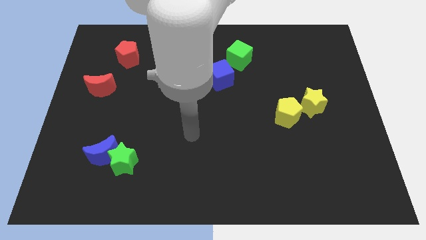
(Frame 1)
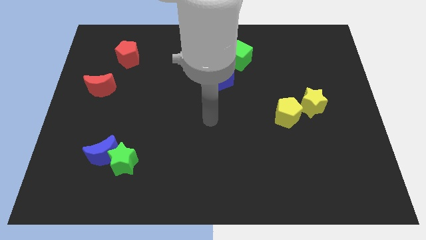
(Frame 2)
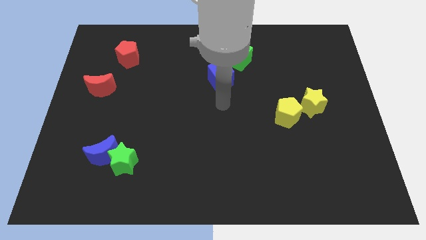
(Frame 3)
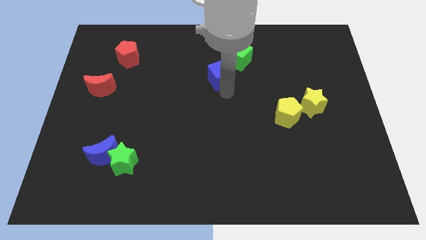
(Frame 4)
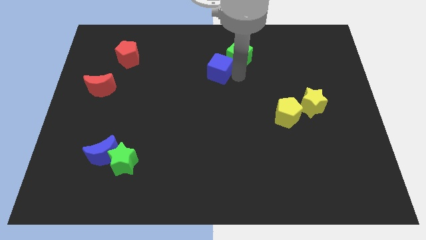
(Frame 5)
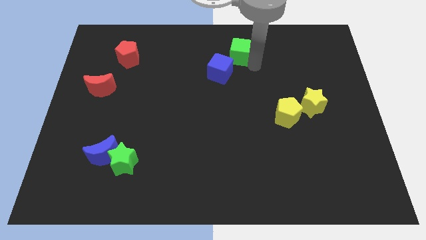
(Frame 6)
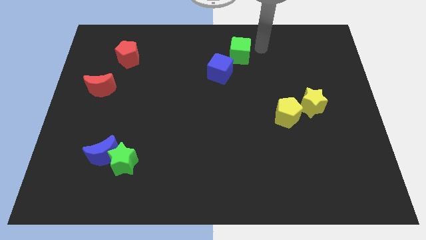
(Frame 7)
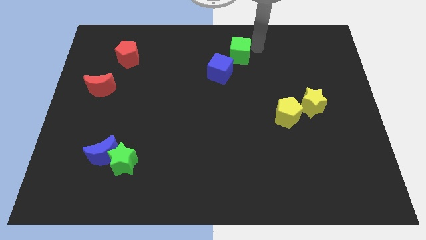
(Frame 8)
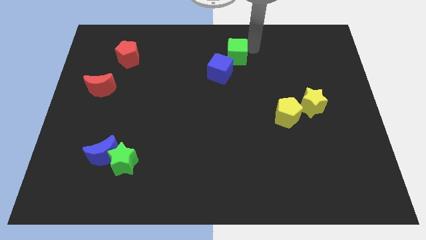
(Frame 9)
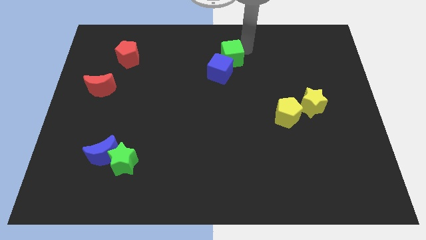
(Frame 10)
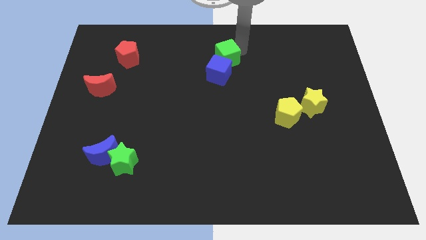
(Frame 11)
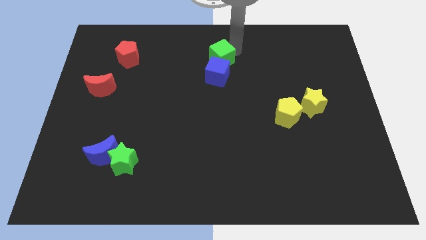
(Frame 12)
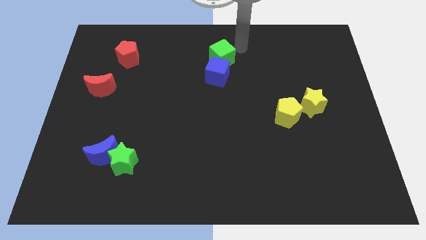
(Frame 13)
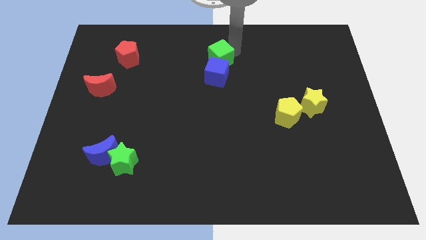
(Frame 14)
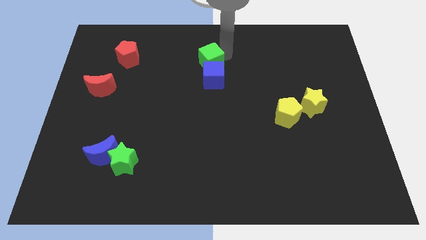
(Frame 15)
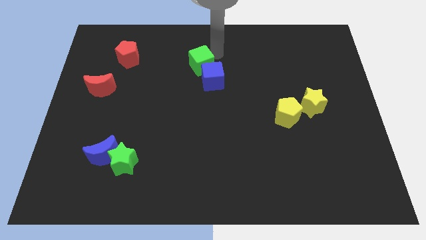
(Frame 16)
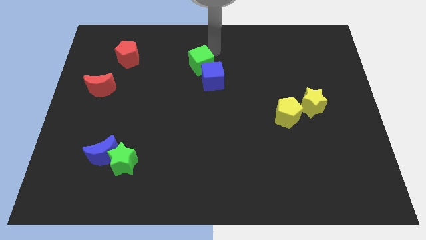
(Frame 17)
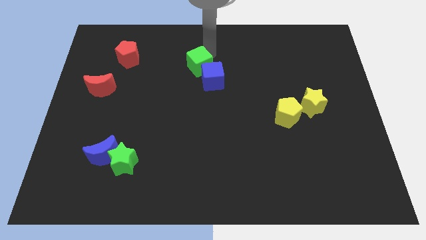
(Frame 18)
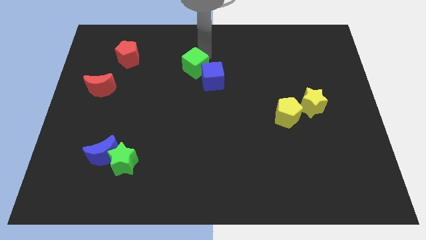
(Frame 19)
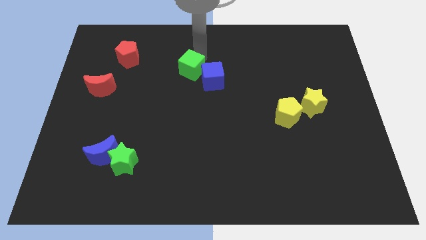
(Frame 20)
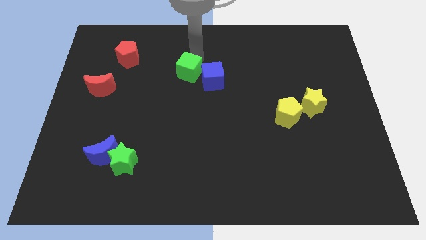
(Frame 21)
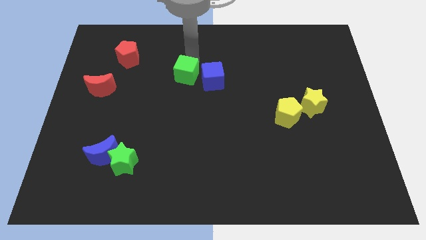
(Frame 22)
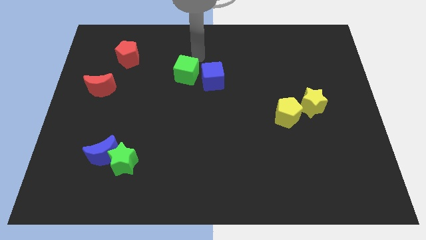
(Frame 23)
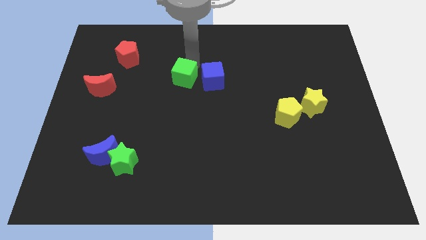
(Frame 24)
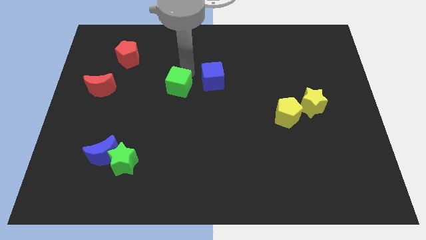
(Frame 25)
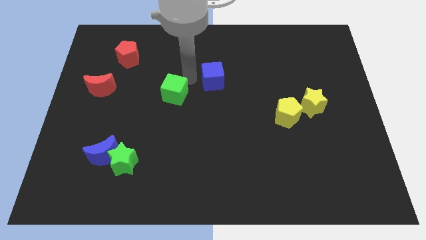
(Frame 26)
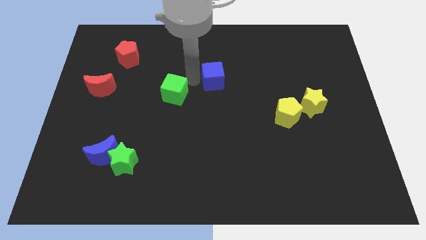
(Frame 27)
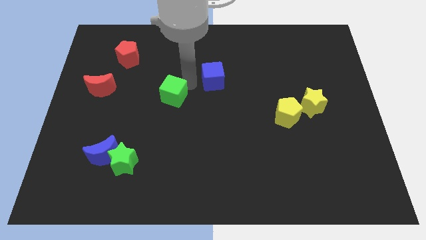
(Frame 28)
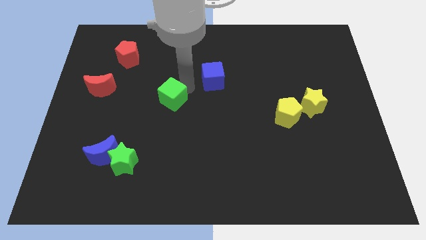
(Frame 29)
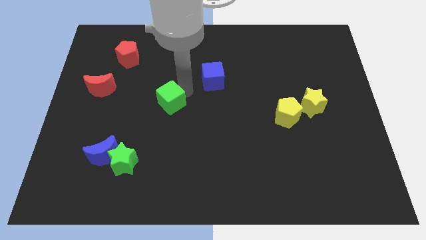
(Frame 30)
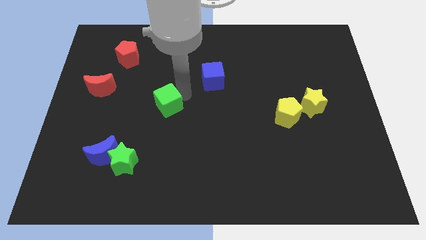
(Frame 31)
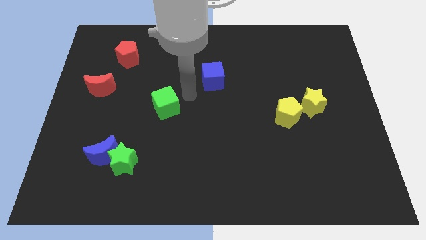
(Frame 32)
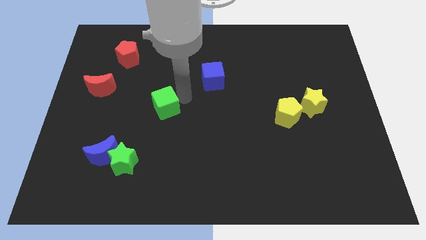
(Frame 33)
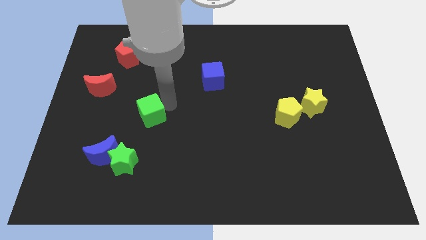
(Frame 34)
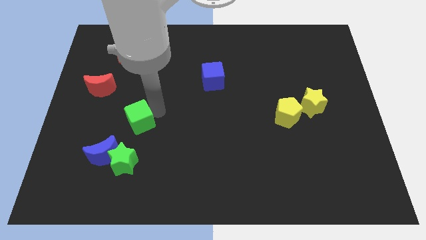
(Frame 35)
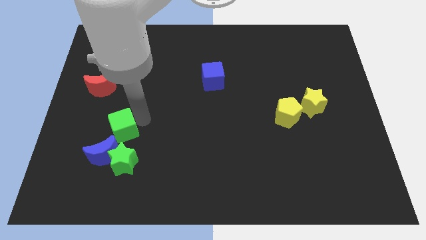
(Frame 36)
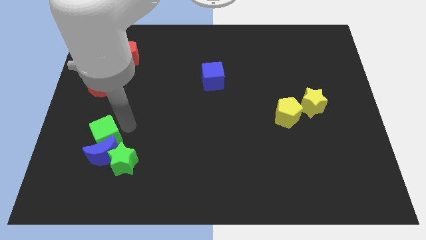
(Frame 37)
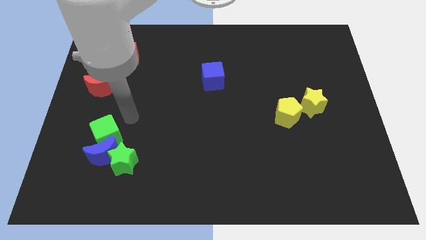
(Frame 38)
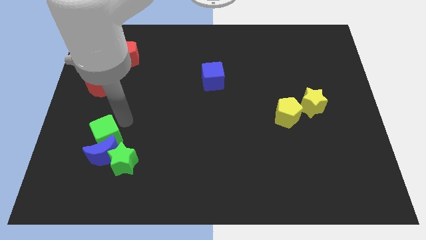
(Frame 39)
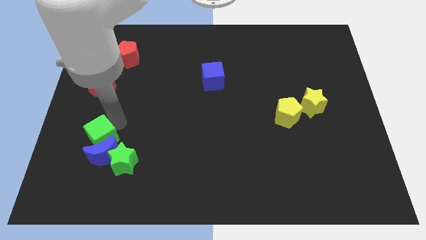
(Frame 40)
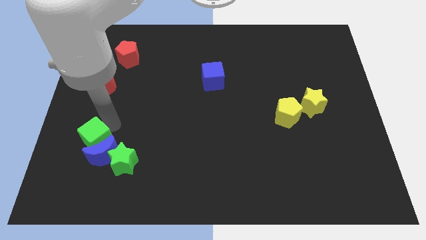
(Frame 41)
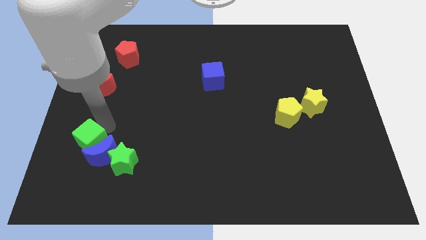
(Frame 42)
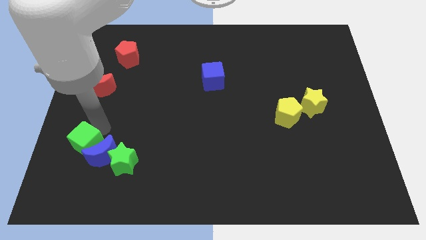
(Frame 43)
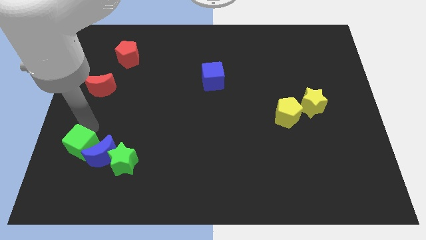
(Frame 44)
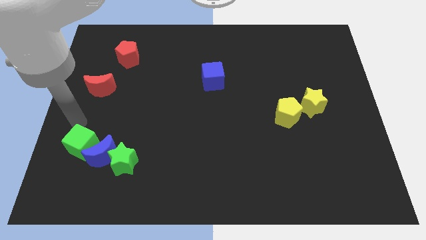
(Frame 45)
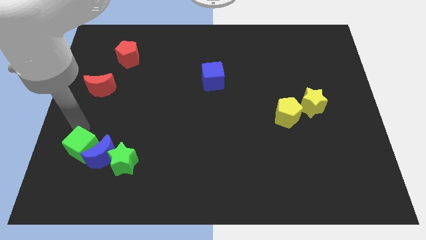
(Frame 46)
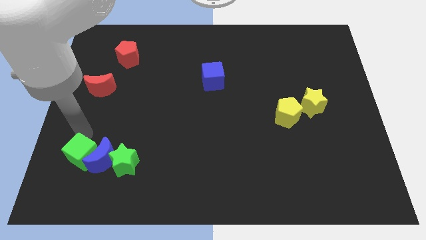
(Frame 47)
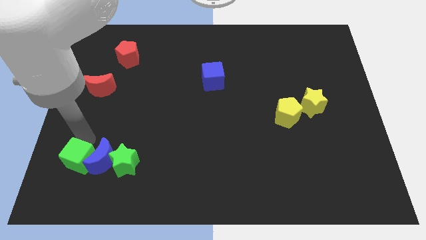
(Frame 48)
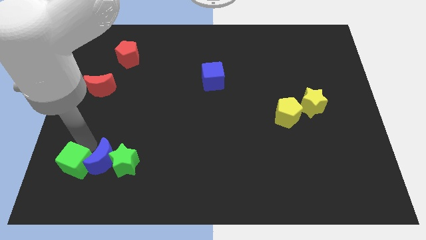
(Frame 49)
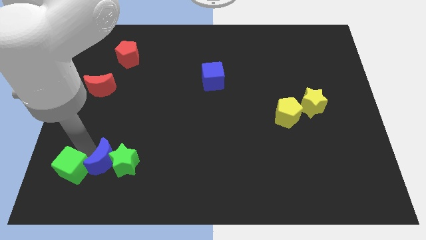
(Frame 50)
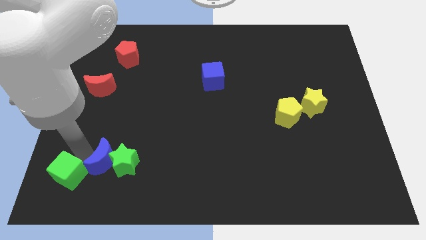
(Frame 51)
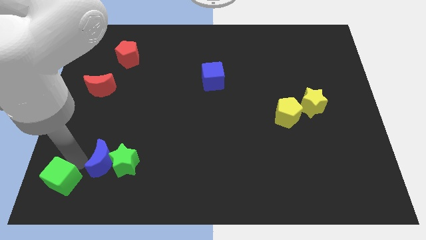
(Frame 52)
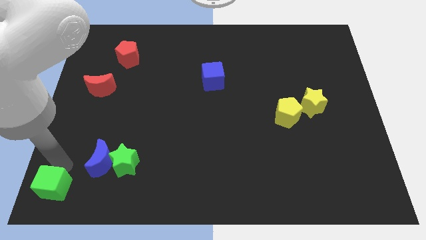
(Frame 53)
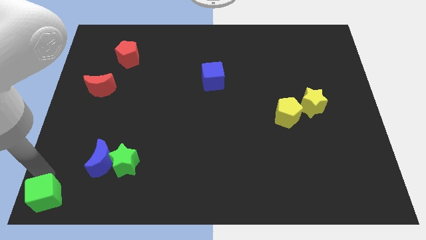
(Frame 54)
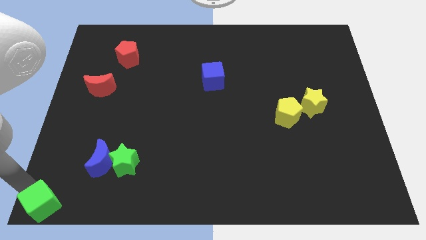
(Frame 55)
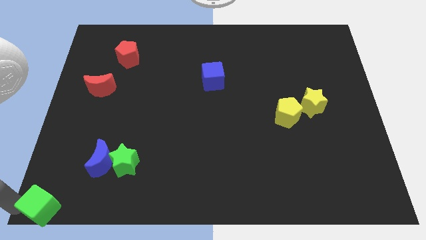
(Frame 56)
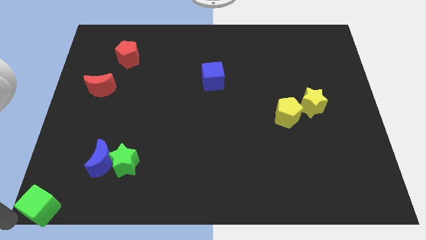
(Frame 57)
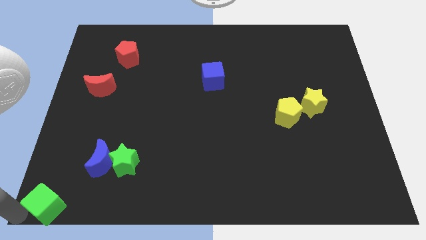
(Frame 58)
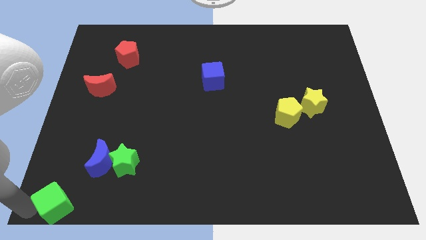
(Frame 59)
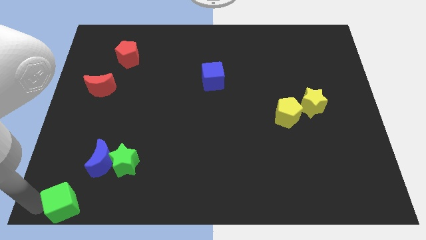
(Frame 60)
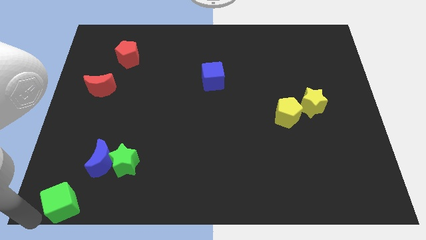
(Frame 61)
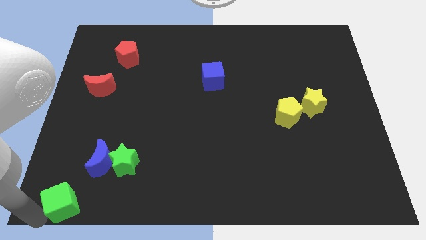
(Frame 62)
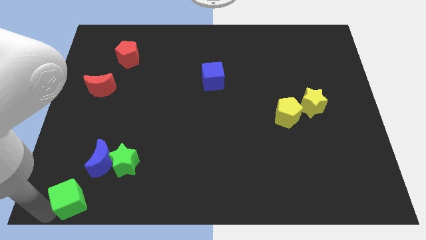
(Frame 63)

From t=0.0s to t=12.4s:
slide the green cube to the bottom left of the green star
